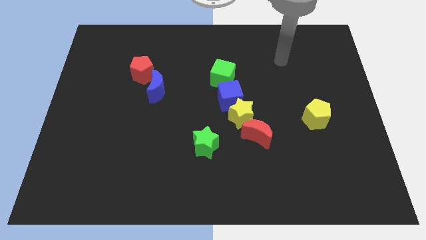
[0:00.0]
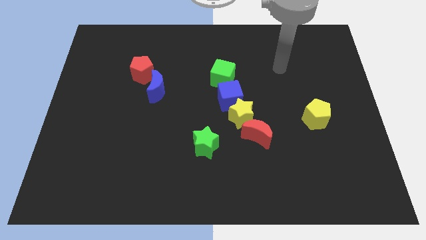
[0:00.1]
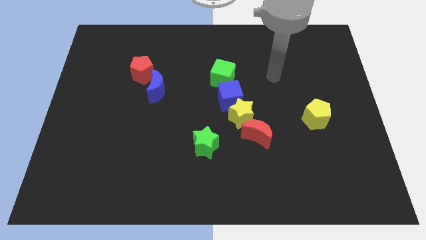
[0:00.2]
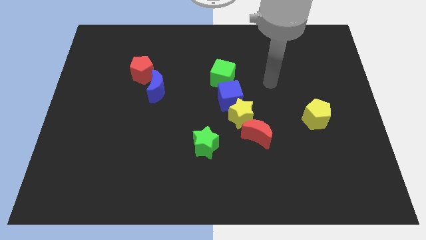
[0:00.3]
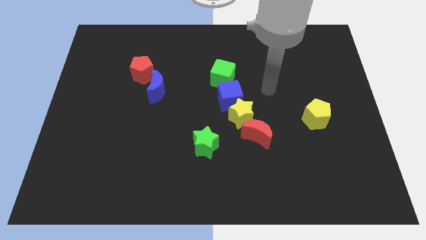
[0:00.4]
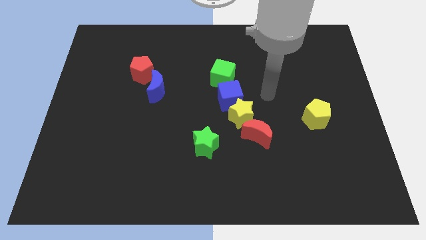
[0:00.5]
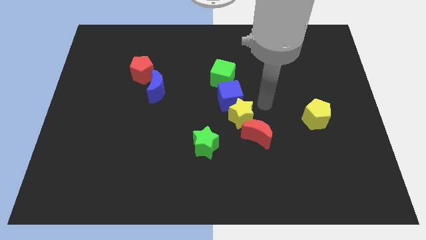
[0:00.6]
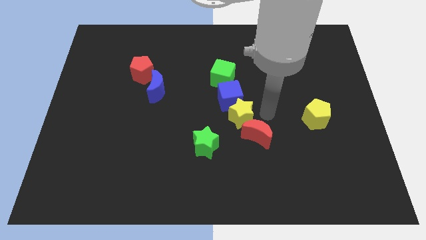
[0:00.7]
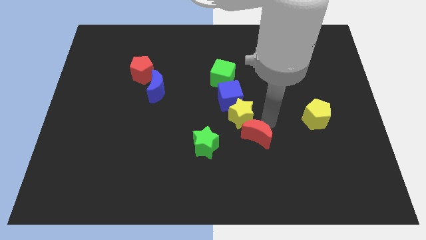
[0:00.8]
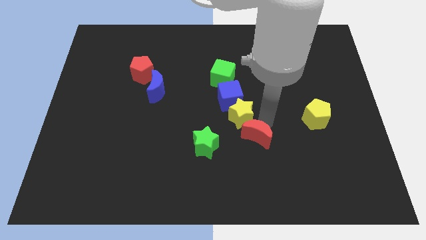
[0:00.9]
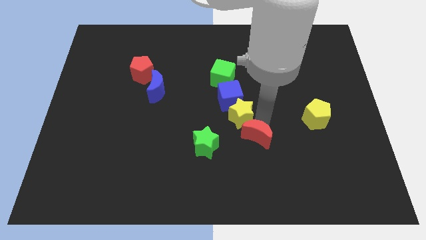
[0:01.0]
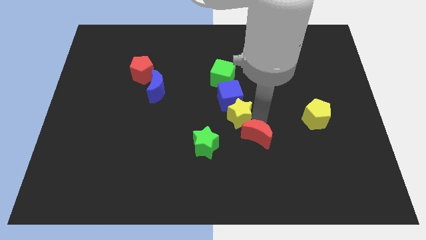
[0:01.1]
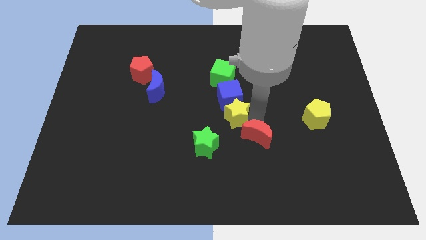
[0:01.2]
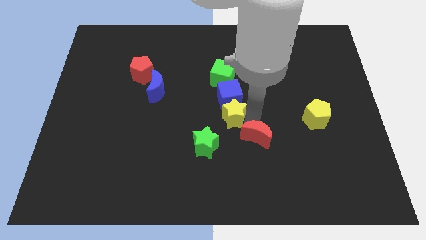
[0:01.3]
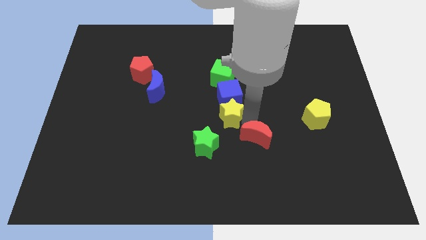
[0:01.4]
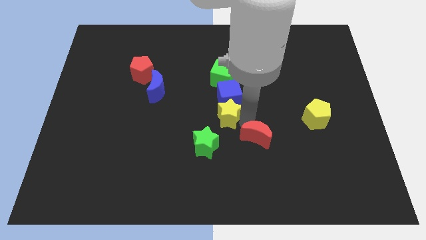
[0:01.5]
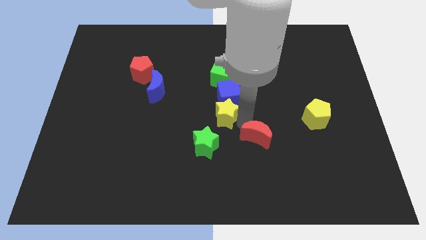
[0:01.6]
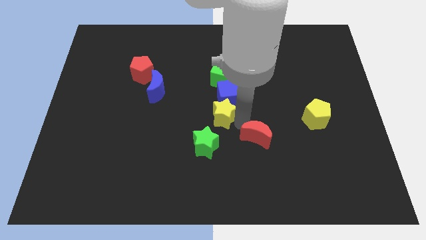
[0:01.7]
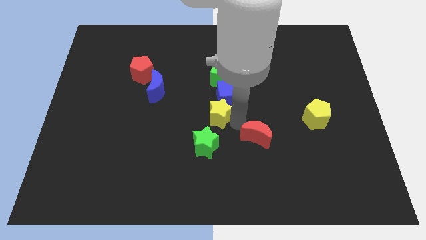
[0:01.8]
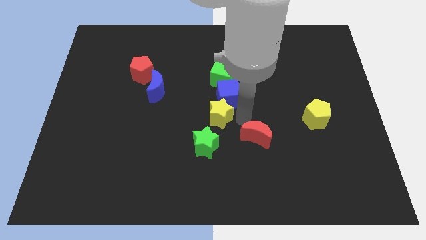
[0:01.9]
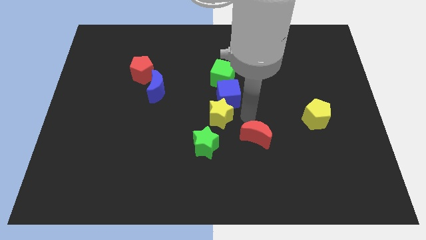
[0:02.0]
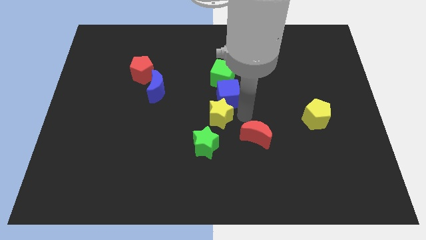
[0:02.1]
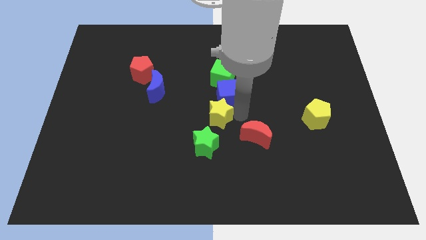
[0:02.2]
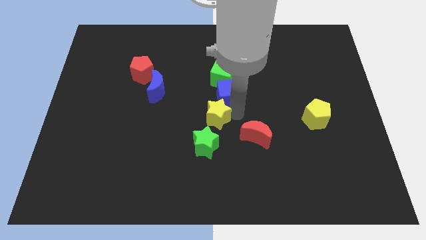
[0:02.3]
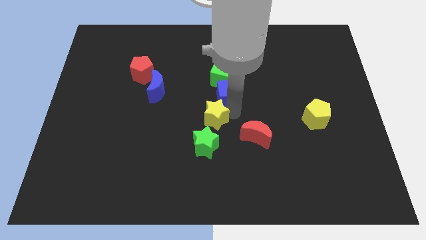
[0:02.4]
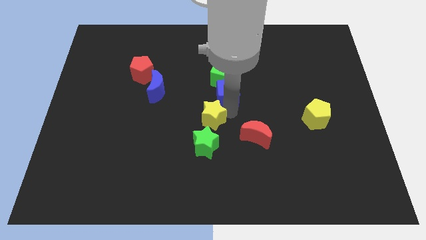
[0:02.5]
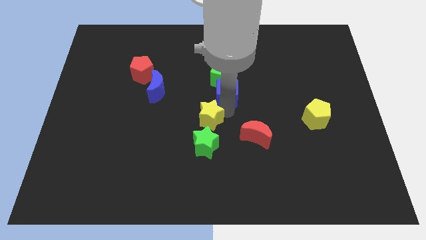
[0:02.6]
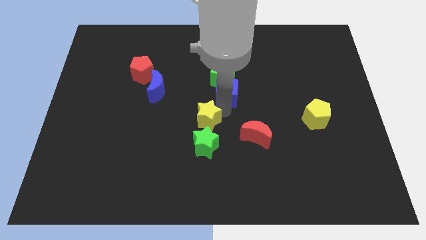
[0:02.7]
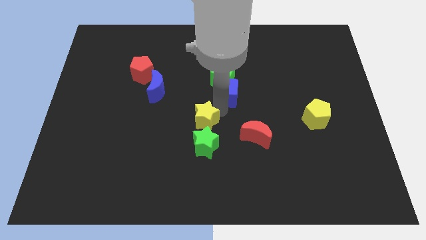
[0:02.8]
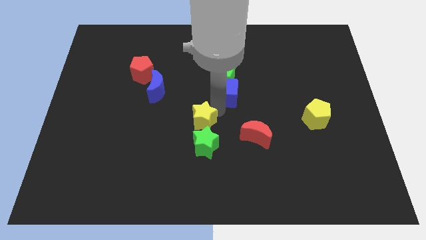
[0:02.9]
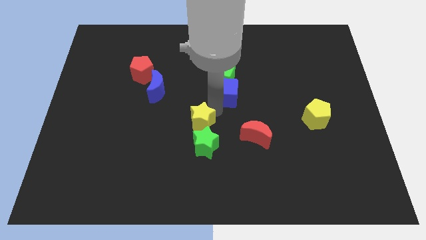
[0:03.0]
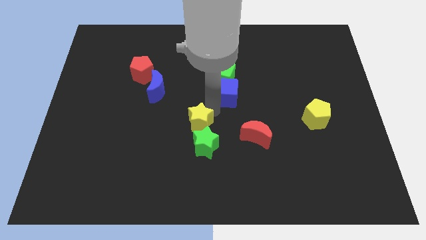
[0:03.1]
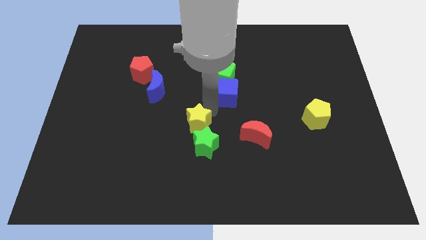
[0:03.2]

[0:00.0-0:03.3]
separate the yellow star from the blue cube and red moon

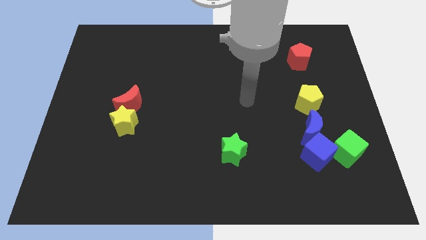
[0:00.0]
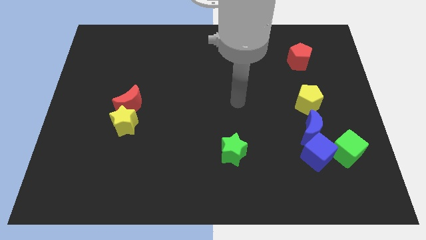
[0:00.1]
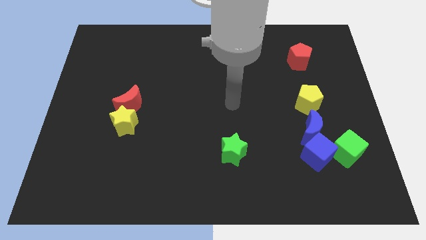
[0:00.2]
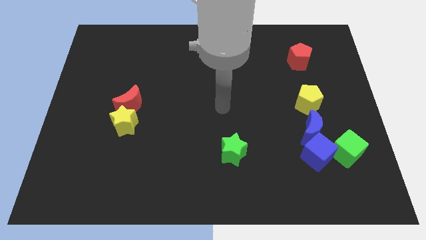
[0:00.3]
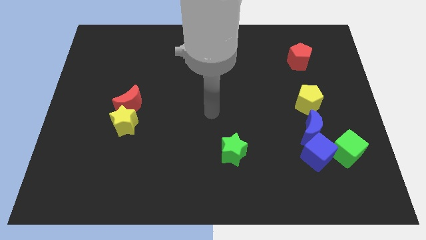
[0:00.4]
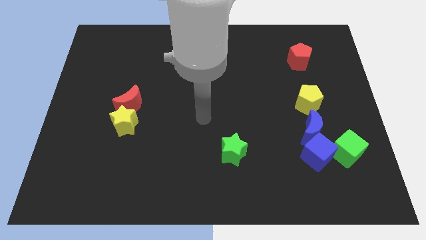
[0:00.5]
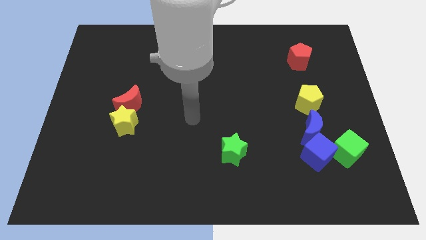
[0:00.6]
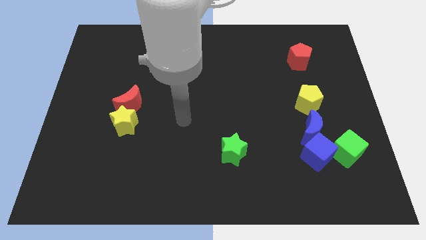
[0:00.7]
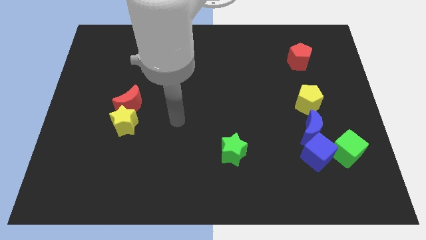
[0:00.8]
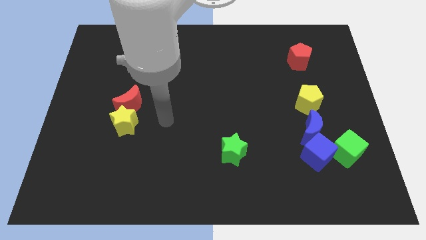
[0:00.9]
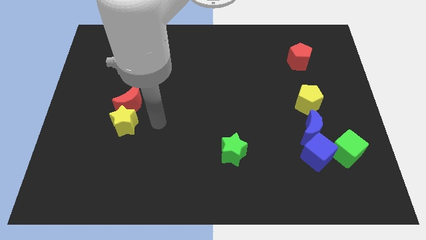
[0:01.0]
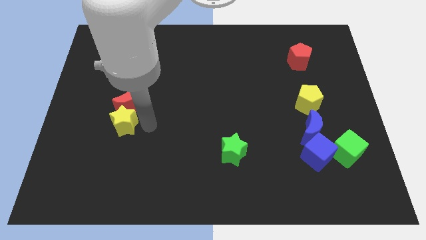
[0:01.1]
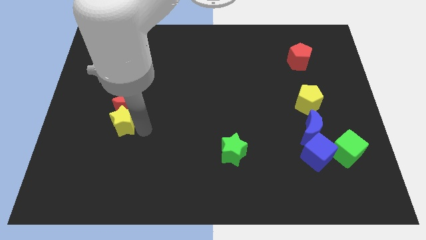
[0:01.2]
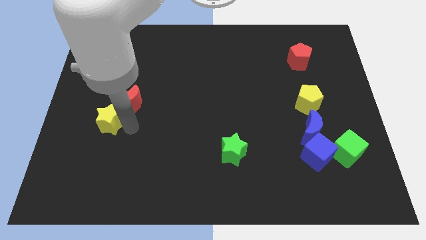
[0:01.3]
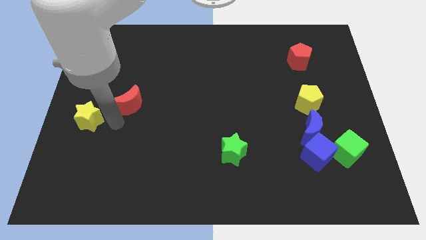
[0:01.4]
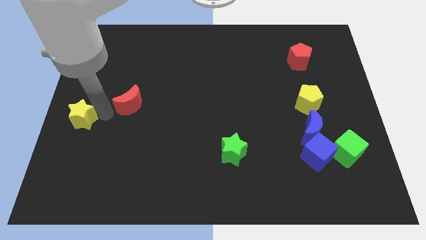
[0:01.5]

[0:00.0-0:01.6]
pull the red moon apart from the yellow star

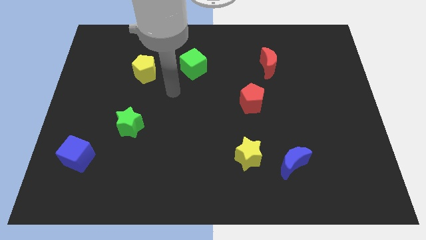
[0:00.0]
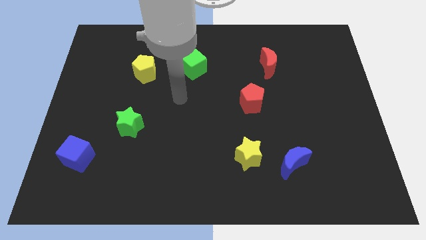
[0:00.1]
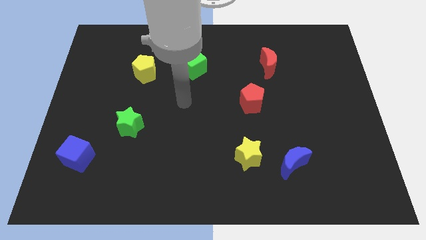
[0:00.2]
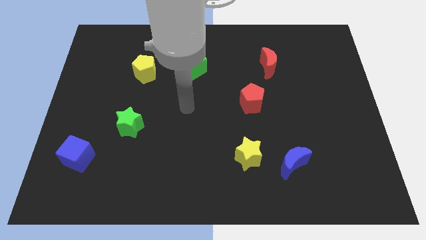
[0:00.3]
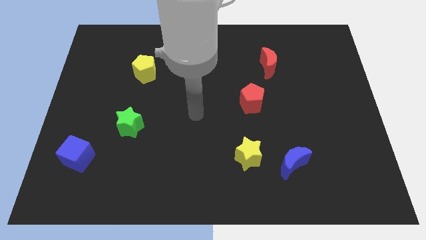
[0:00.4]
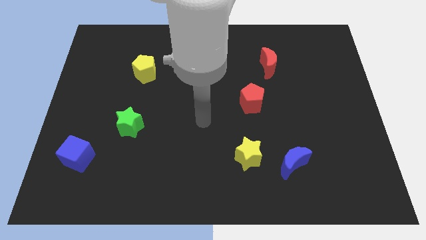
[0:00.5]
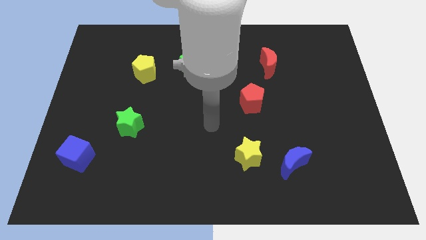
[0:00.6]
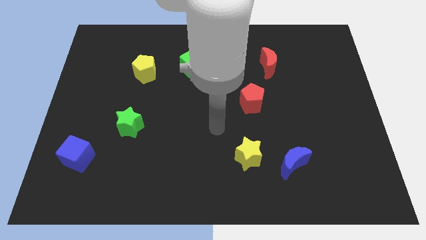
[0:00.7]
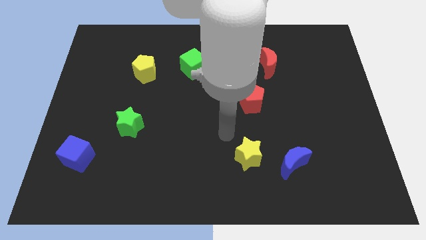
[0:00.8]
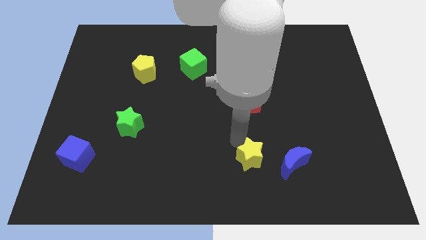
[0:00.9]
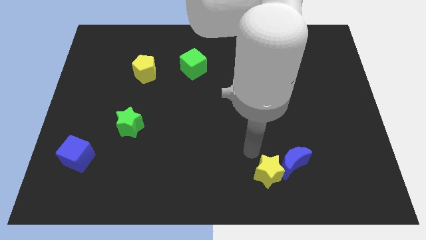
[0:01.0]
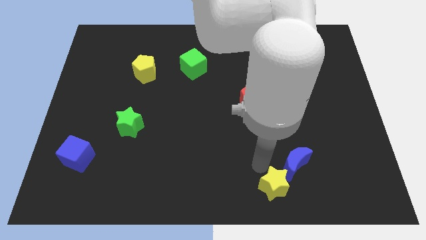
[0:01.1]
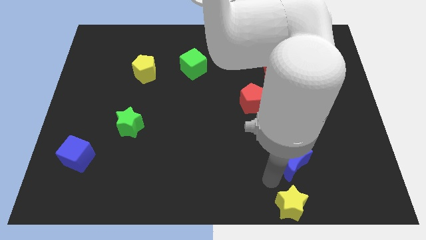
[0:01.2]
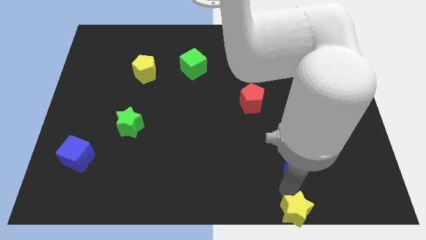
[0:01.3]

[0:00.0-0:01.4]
separate the blue moon from the yellow star

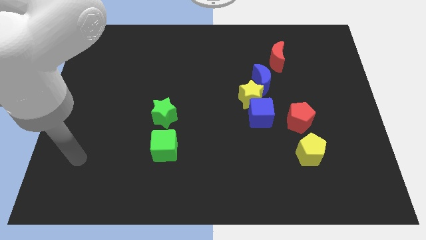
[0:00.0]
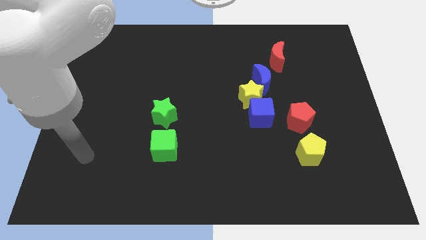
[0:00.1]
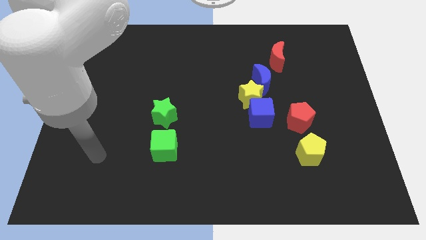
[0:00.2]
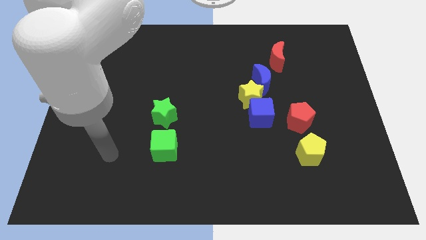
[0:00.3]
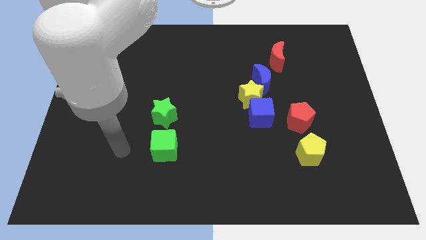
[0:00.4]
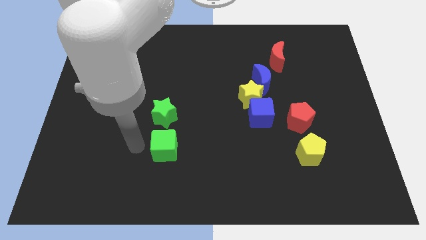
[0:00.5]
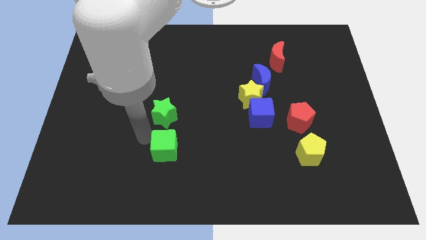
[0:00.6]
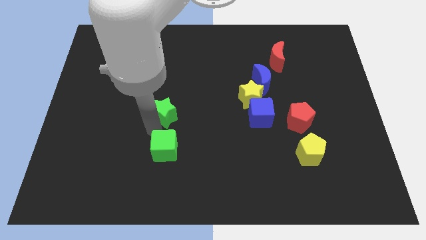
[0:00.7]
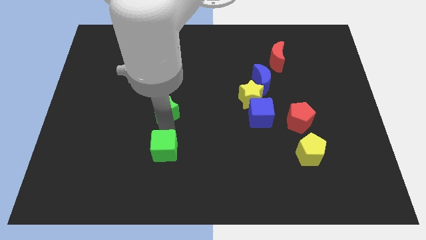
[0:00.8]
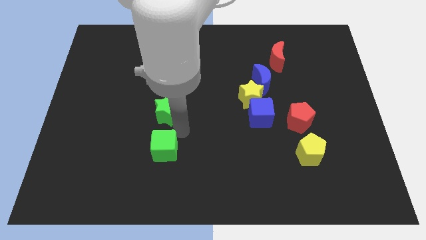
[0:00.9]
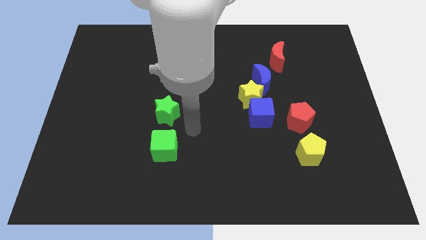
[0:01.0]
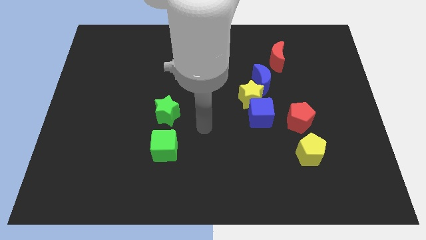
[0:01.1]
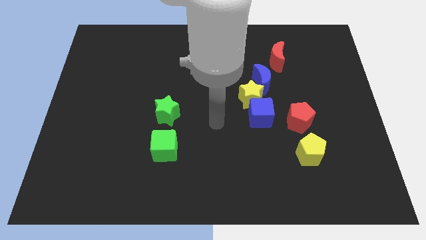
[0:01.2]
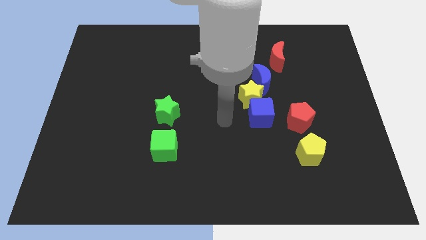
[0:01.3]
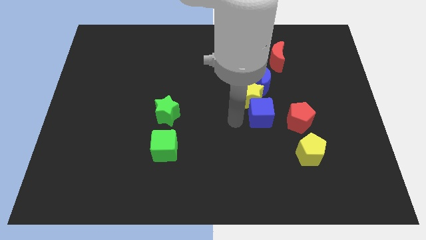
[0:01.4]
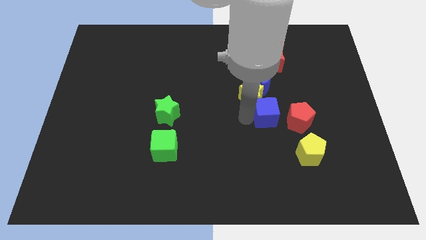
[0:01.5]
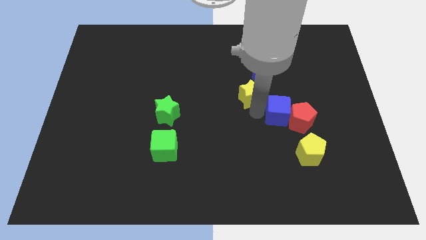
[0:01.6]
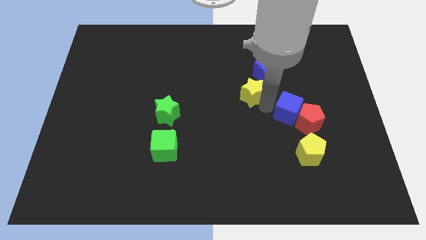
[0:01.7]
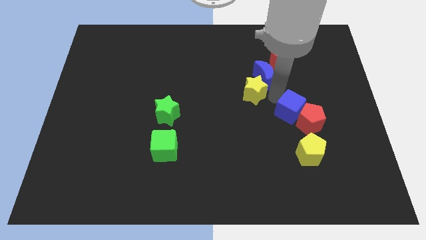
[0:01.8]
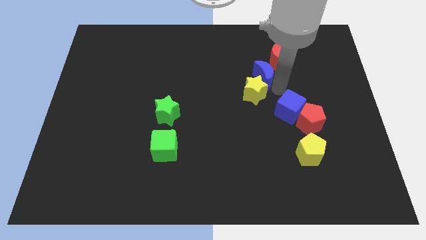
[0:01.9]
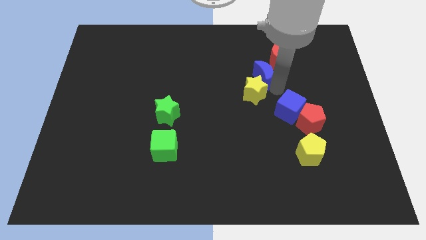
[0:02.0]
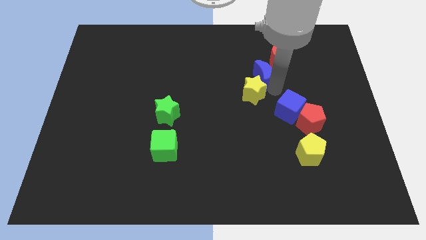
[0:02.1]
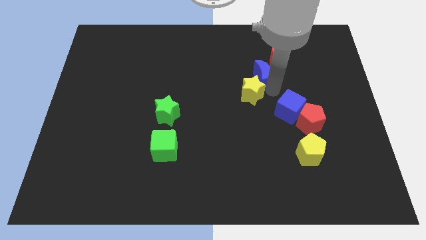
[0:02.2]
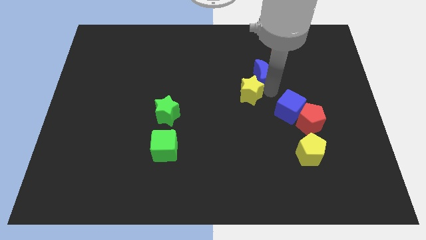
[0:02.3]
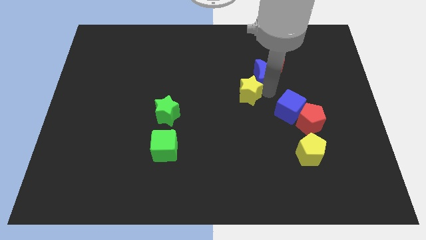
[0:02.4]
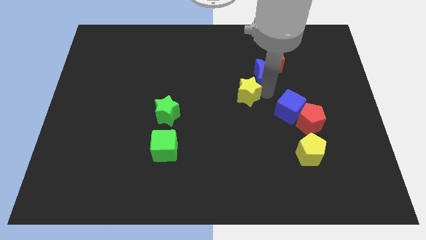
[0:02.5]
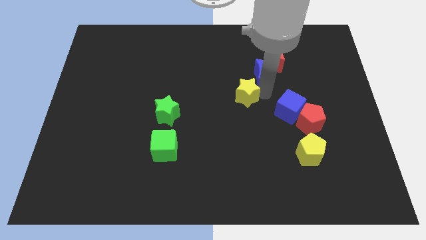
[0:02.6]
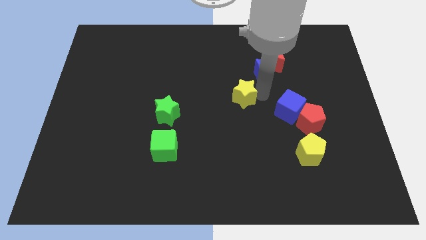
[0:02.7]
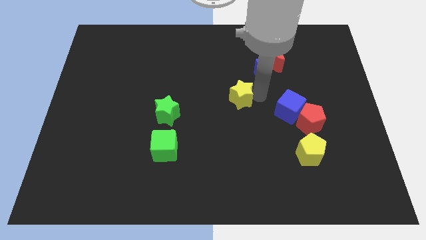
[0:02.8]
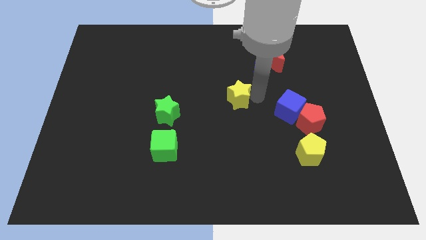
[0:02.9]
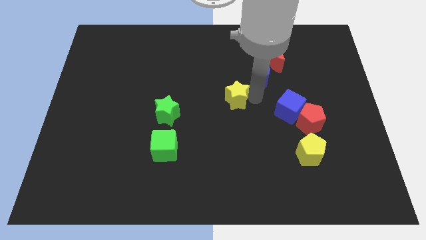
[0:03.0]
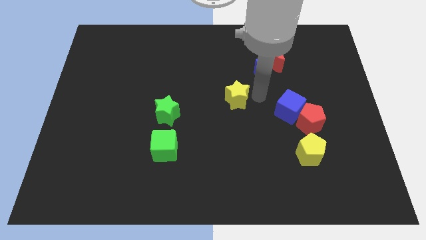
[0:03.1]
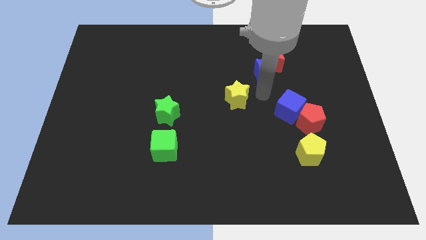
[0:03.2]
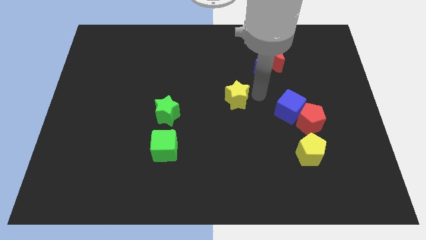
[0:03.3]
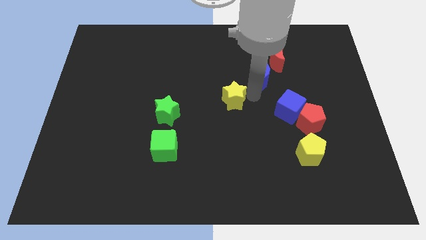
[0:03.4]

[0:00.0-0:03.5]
move the yellow star away from the blue cube and blue moon
